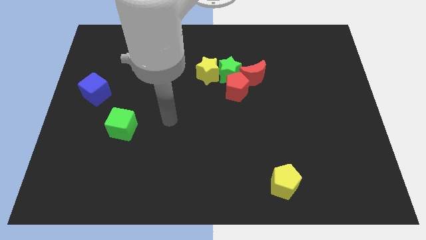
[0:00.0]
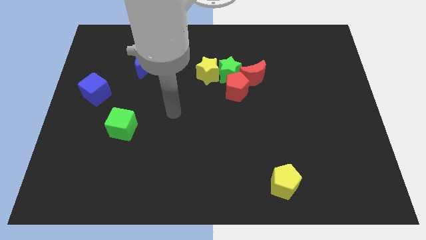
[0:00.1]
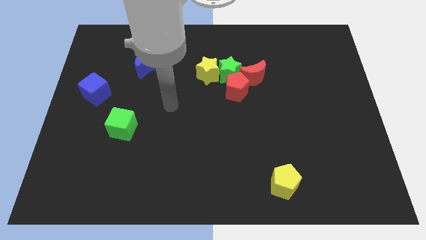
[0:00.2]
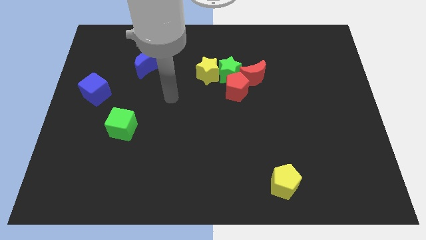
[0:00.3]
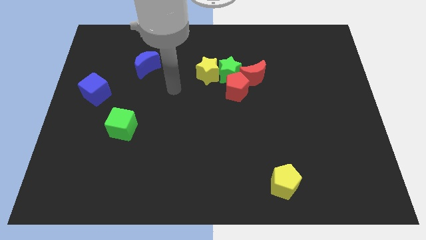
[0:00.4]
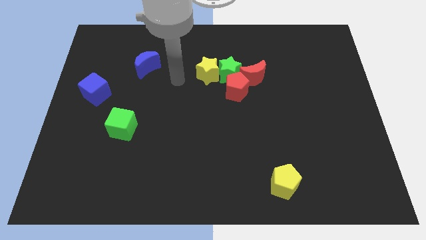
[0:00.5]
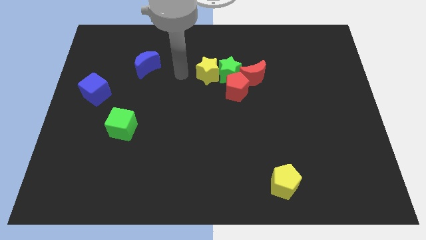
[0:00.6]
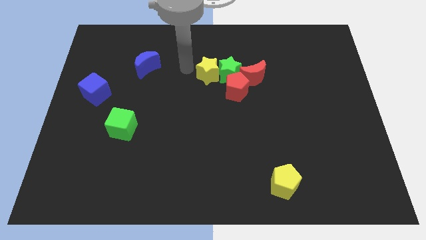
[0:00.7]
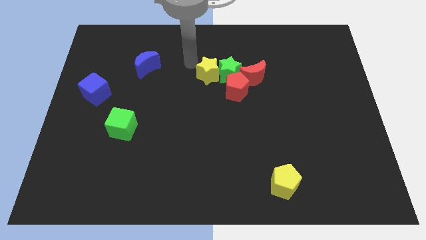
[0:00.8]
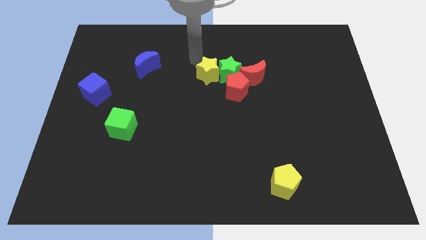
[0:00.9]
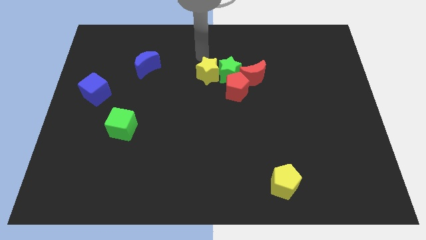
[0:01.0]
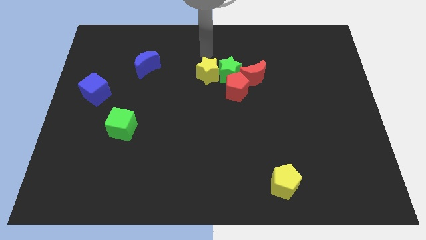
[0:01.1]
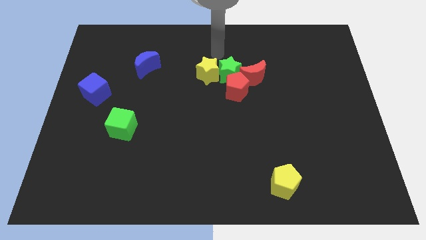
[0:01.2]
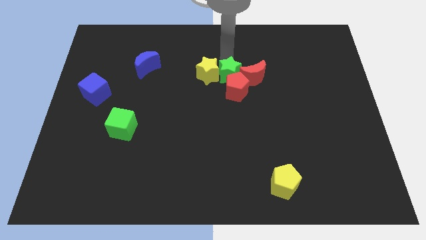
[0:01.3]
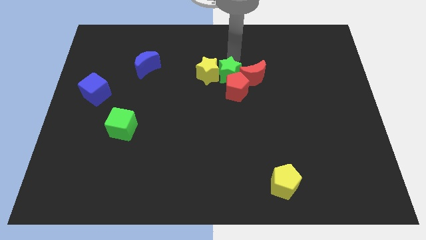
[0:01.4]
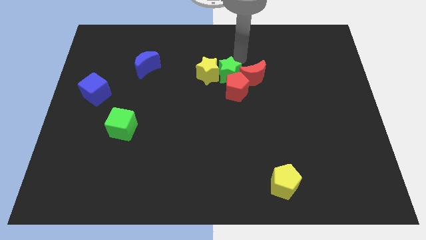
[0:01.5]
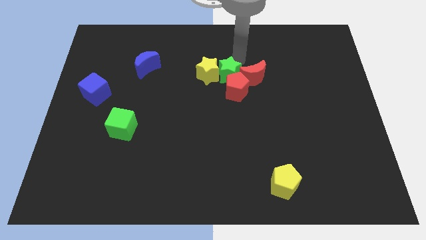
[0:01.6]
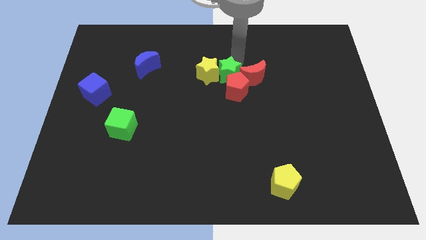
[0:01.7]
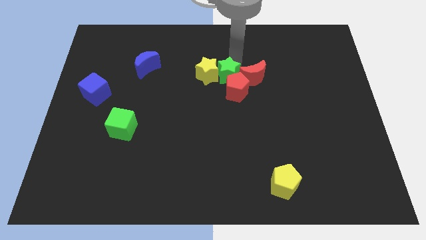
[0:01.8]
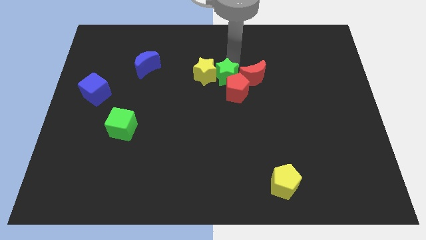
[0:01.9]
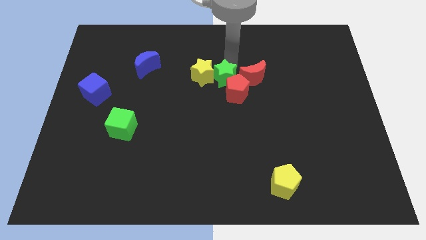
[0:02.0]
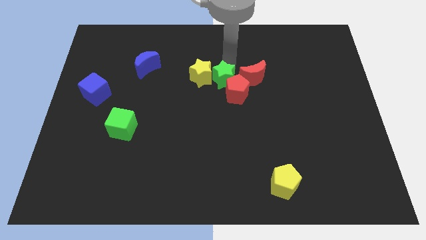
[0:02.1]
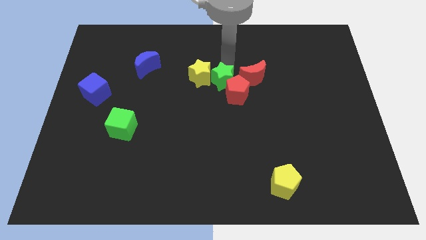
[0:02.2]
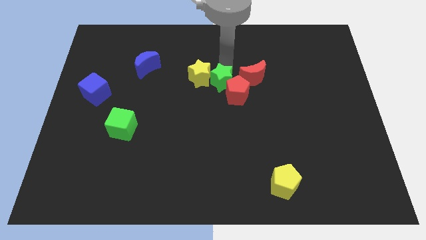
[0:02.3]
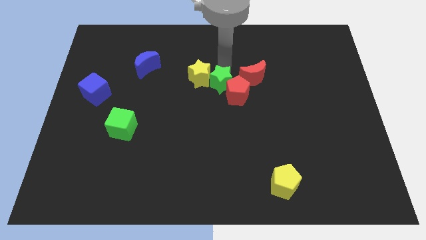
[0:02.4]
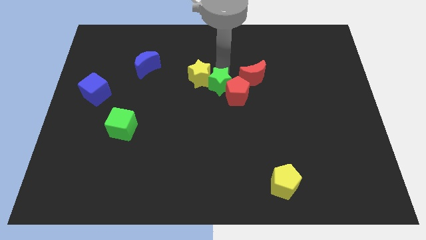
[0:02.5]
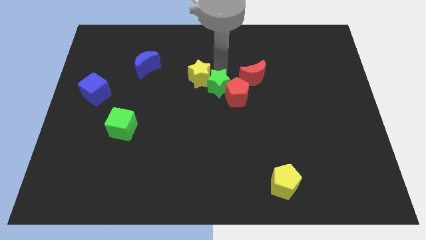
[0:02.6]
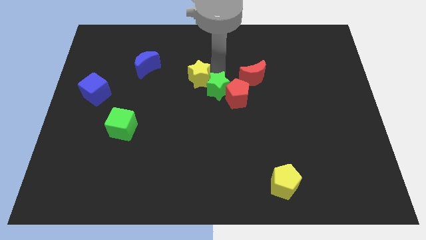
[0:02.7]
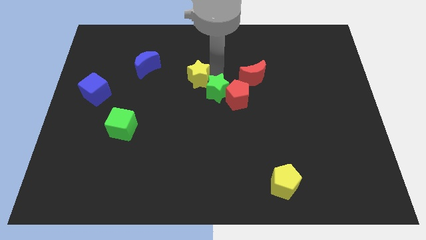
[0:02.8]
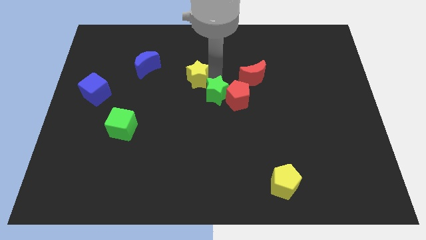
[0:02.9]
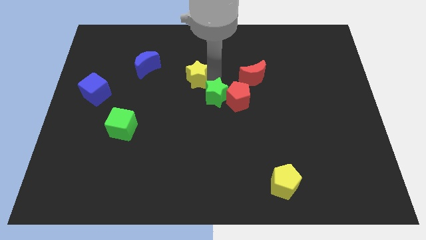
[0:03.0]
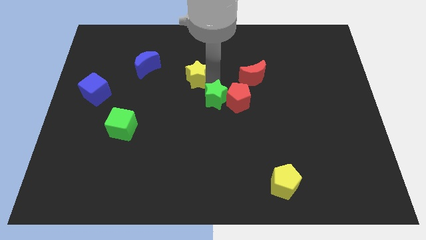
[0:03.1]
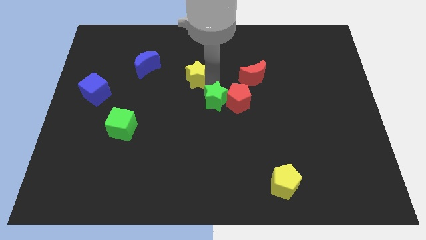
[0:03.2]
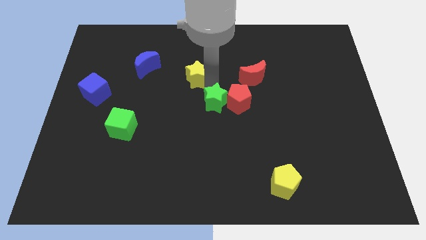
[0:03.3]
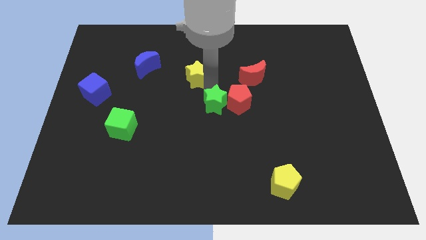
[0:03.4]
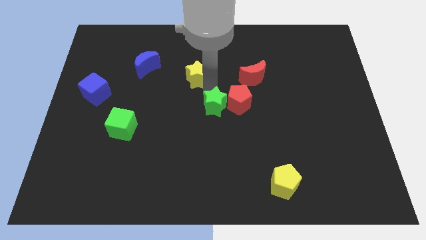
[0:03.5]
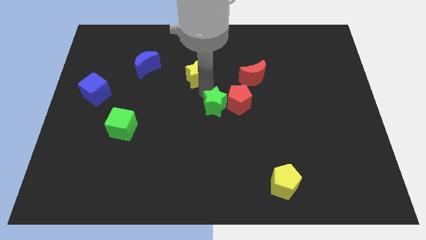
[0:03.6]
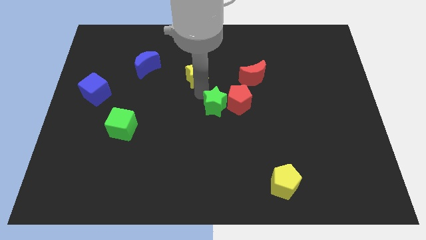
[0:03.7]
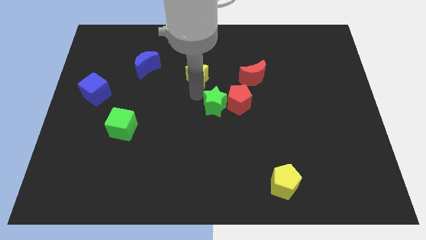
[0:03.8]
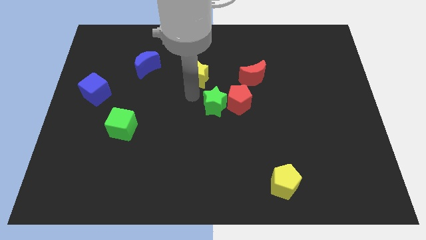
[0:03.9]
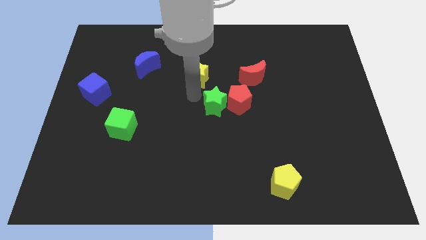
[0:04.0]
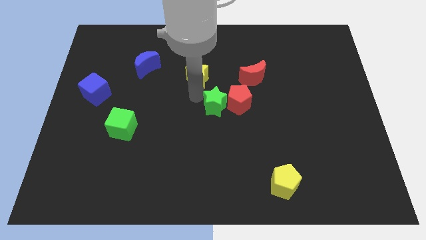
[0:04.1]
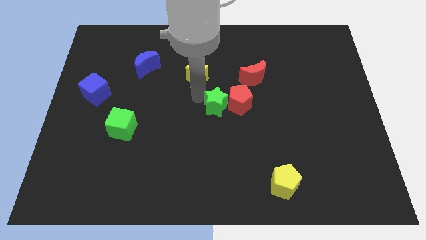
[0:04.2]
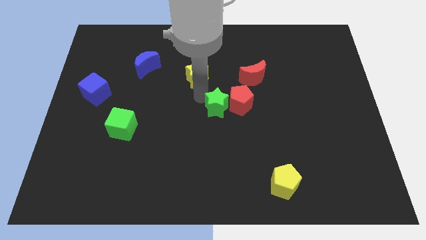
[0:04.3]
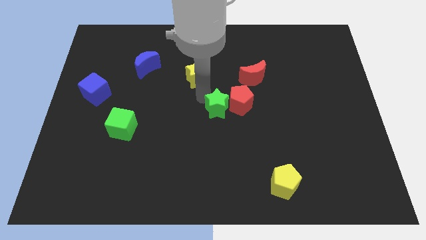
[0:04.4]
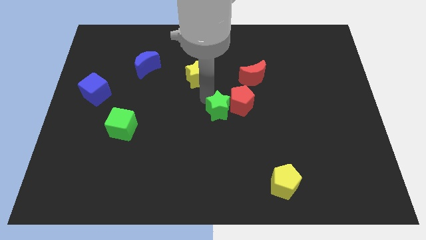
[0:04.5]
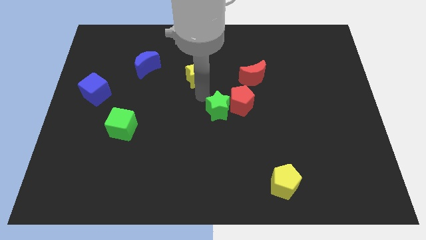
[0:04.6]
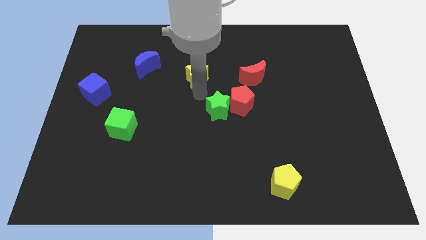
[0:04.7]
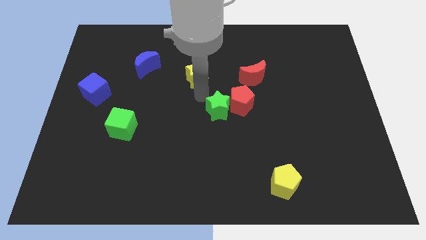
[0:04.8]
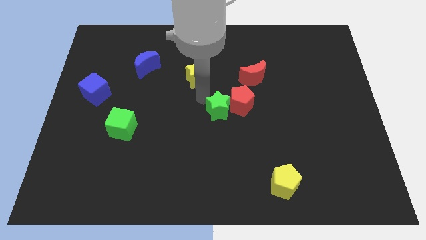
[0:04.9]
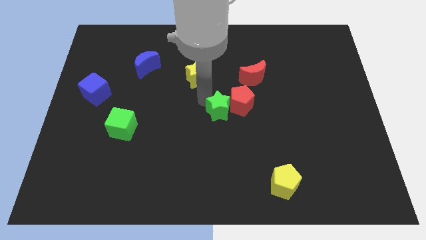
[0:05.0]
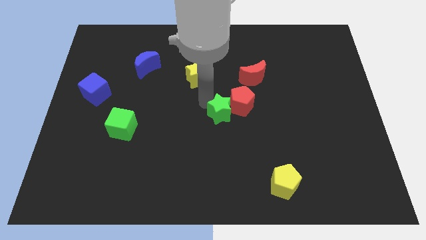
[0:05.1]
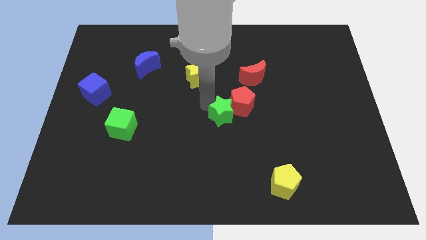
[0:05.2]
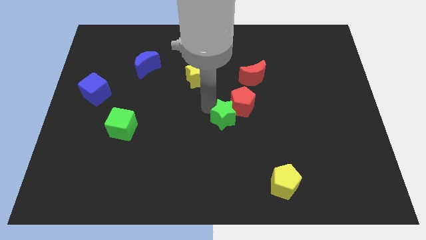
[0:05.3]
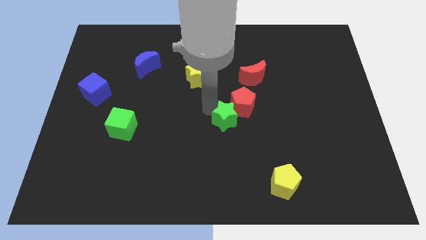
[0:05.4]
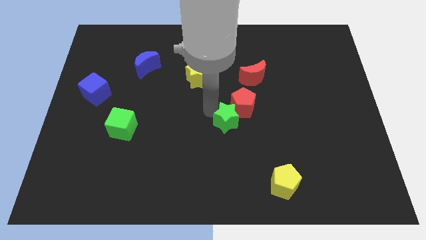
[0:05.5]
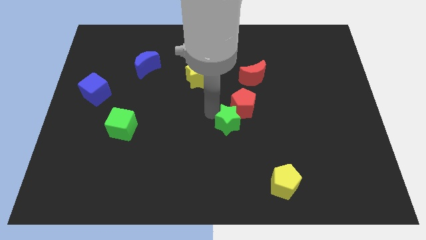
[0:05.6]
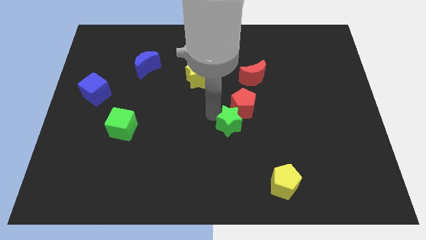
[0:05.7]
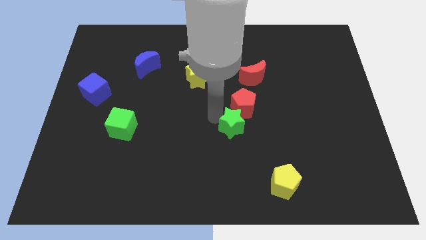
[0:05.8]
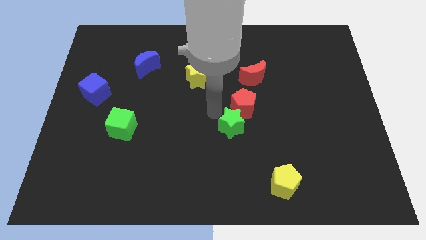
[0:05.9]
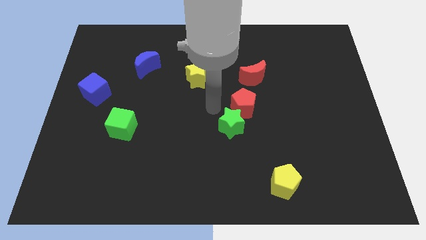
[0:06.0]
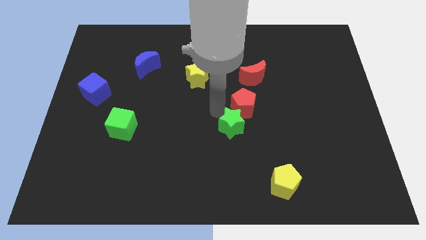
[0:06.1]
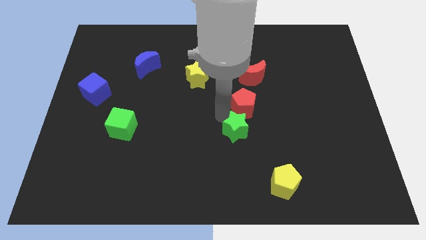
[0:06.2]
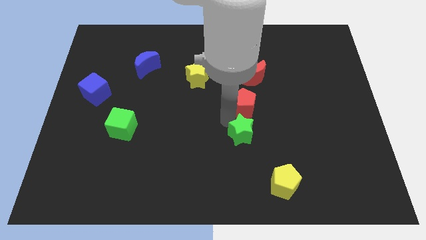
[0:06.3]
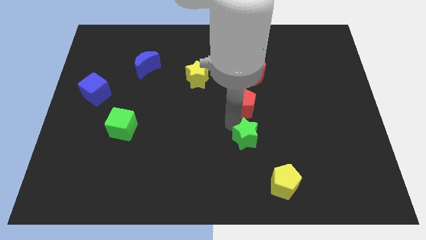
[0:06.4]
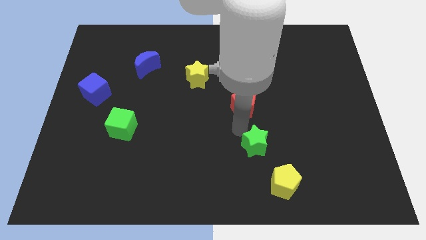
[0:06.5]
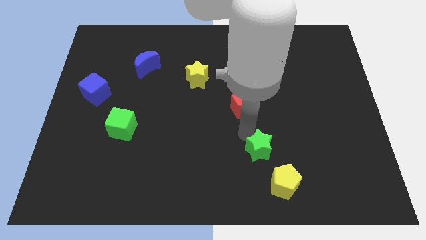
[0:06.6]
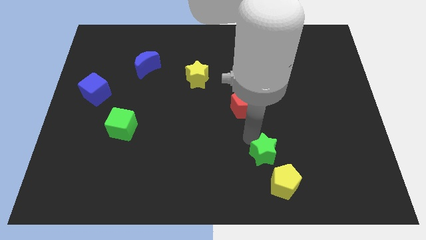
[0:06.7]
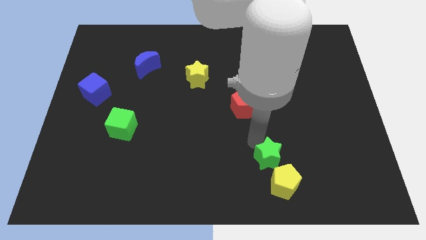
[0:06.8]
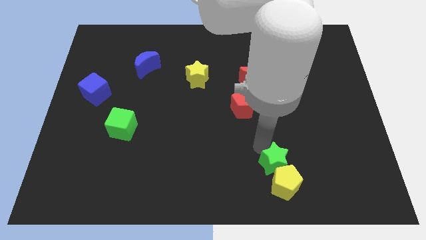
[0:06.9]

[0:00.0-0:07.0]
push the green star close to the yellow pentagon
